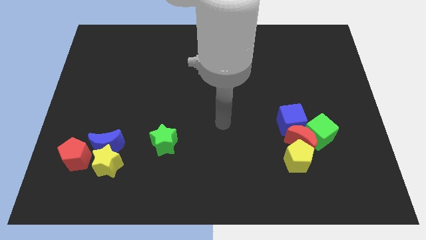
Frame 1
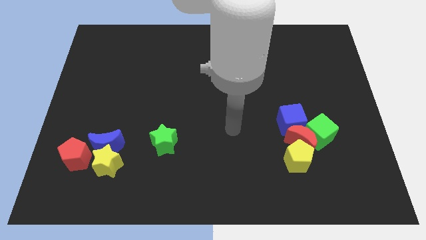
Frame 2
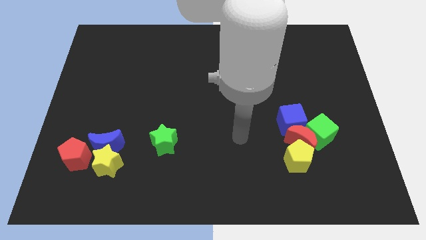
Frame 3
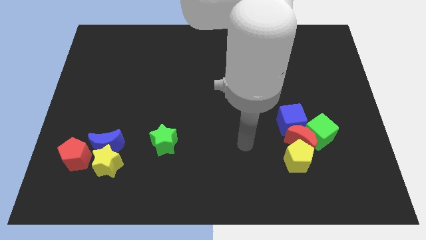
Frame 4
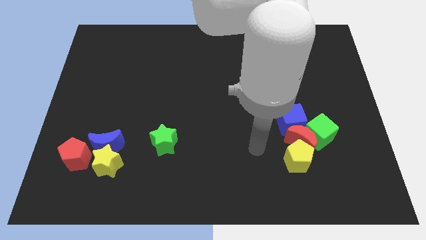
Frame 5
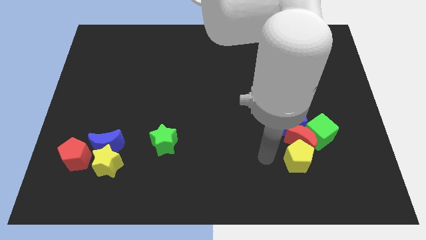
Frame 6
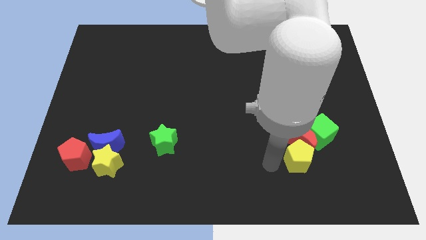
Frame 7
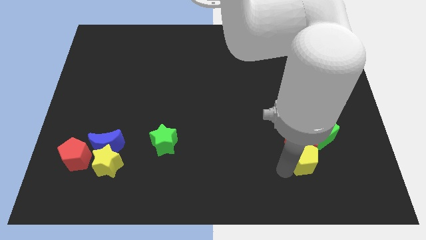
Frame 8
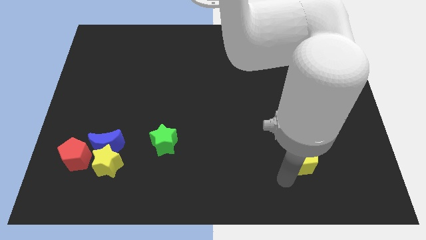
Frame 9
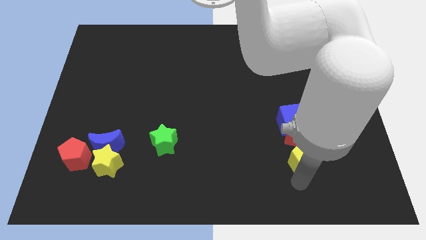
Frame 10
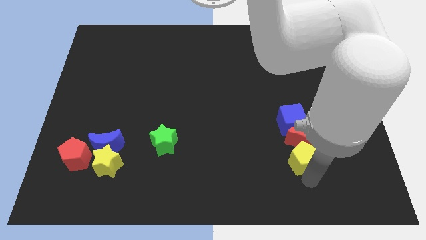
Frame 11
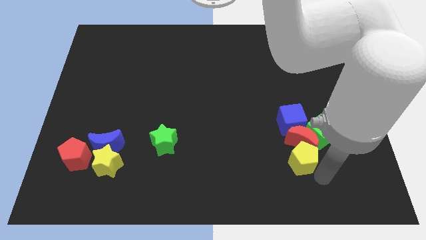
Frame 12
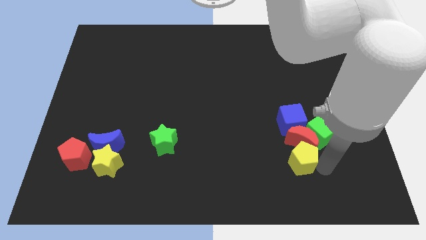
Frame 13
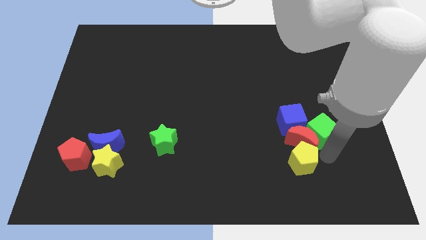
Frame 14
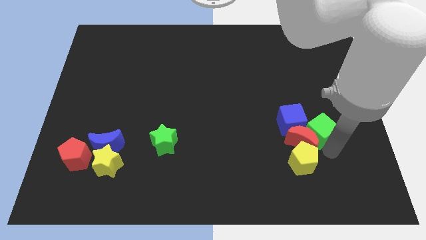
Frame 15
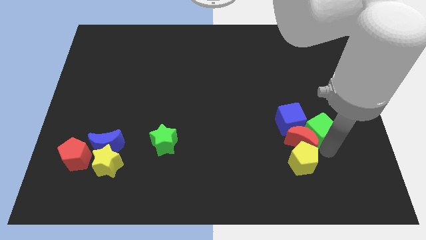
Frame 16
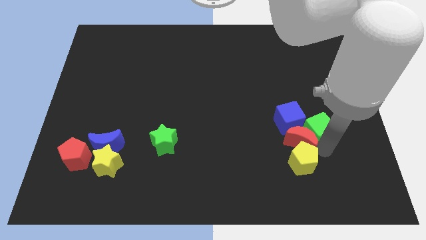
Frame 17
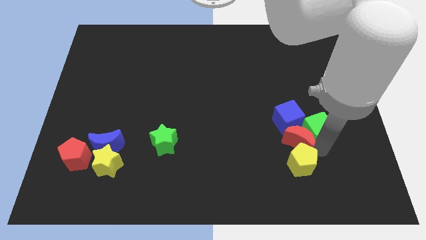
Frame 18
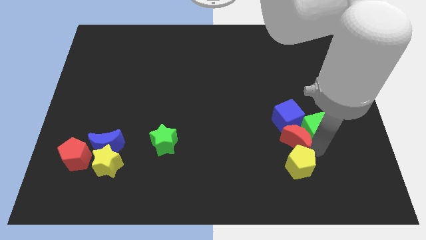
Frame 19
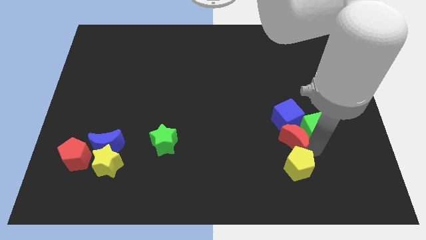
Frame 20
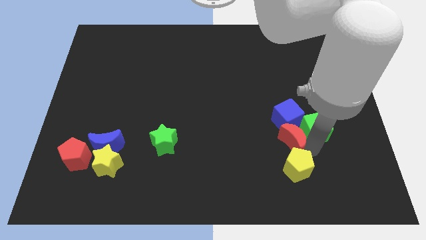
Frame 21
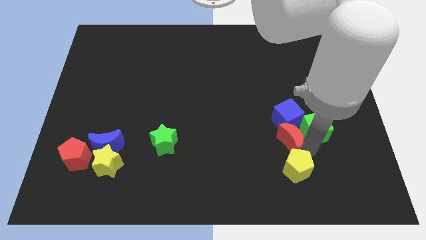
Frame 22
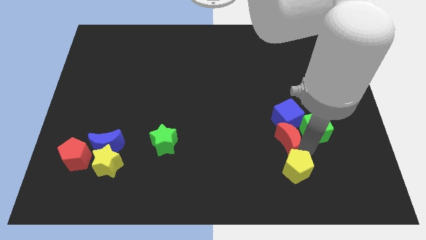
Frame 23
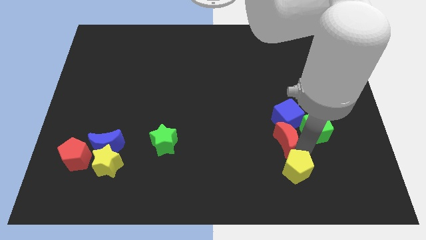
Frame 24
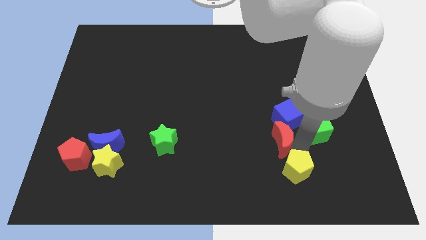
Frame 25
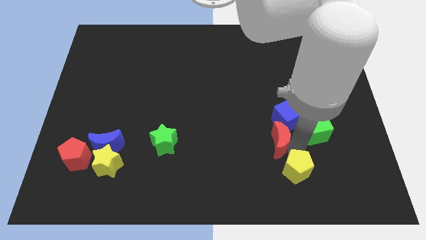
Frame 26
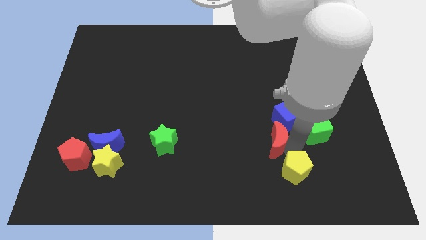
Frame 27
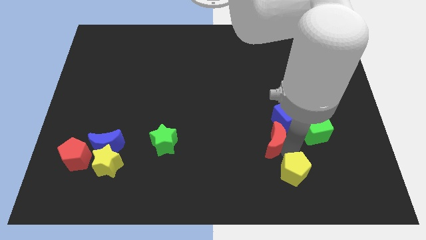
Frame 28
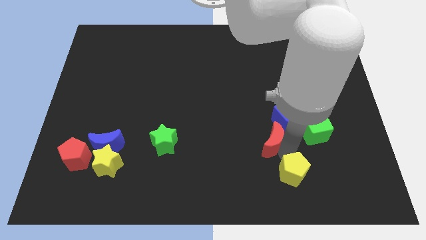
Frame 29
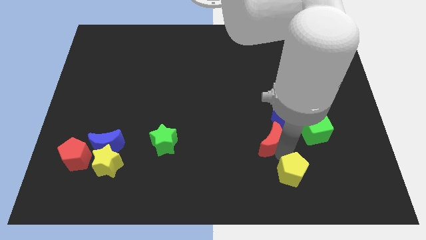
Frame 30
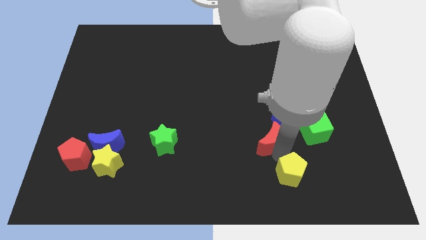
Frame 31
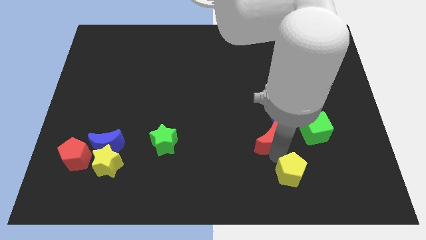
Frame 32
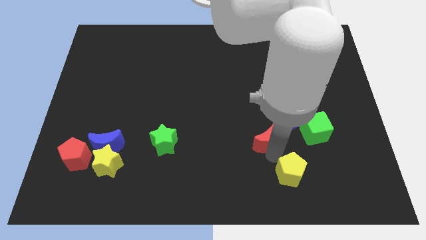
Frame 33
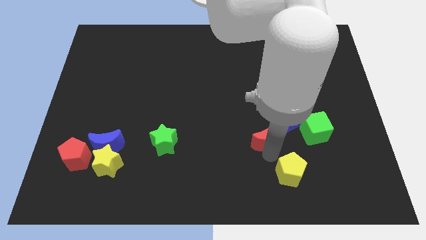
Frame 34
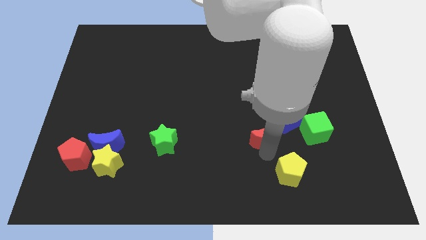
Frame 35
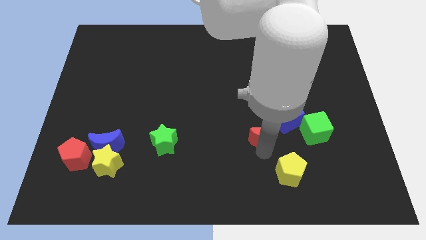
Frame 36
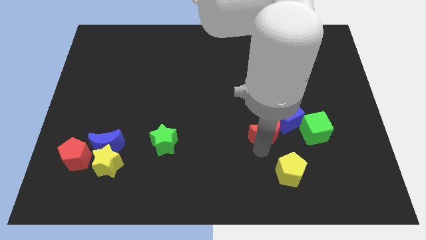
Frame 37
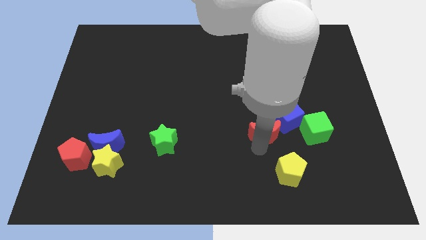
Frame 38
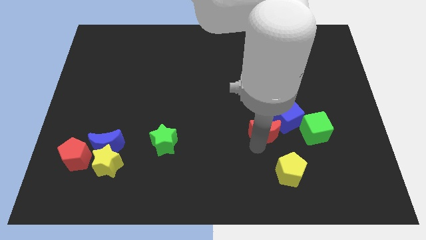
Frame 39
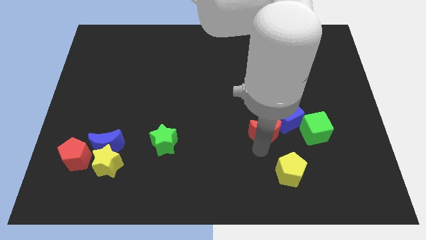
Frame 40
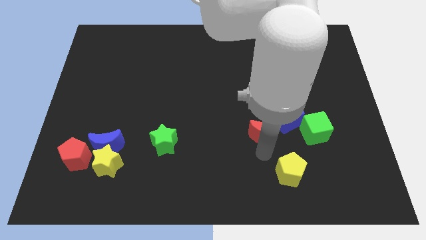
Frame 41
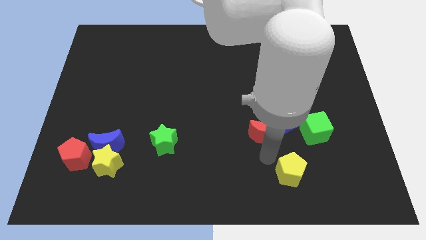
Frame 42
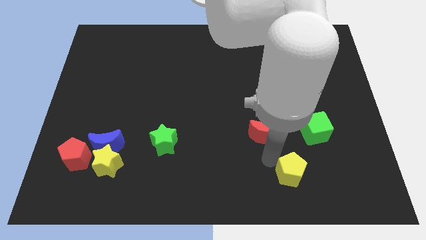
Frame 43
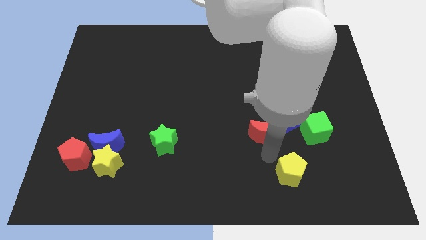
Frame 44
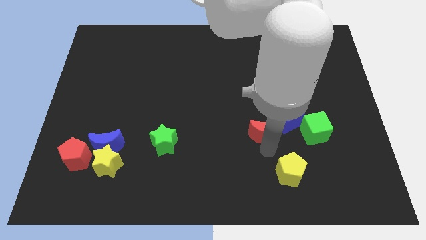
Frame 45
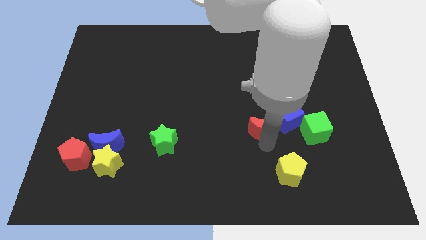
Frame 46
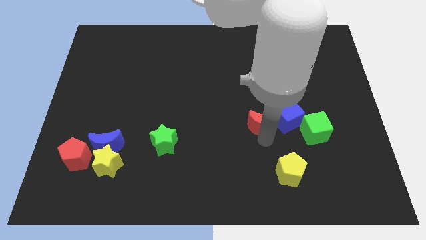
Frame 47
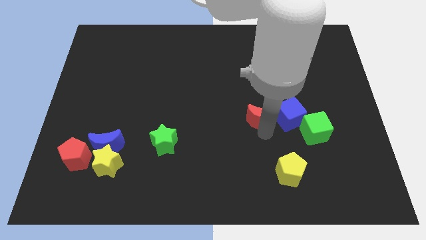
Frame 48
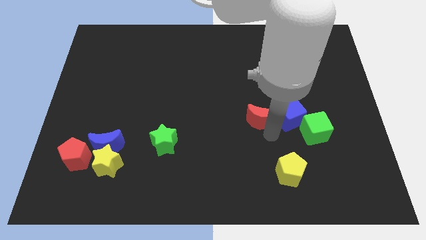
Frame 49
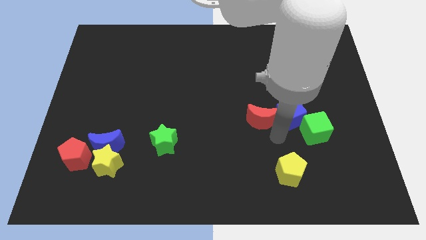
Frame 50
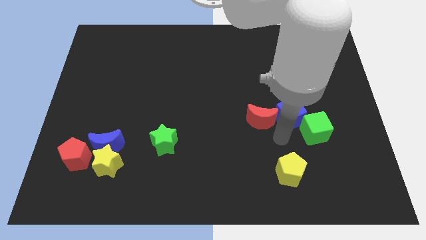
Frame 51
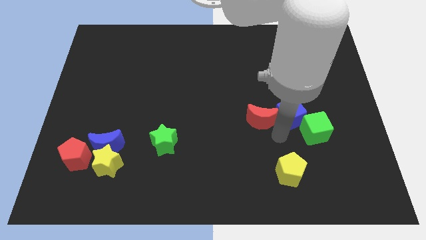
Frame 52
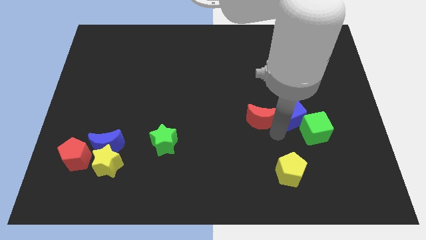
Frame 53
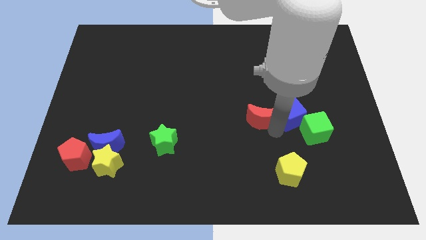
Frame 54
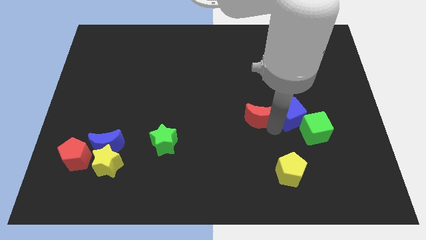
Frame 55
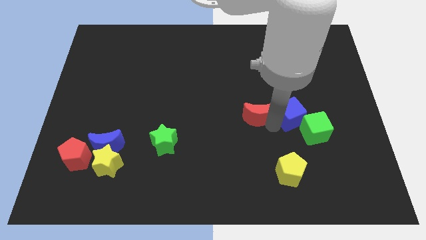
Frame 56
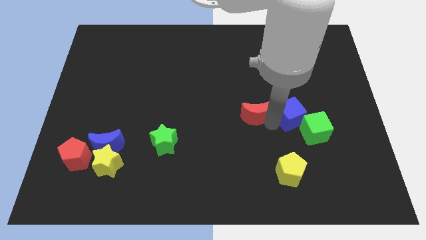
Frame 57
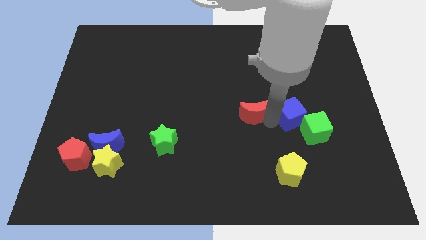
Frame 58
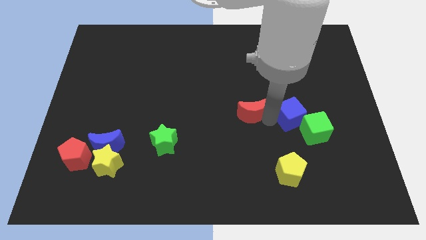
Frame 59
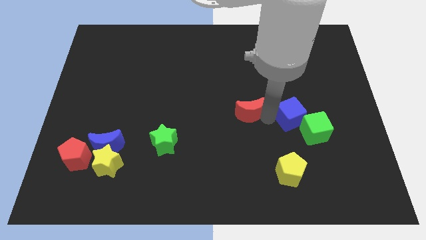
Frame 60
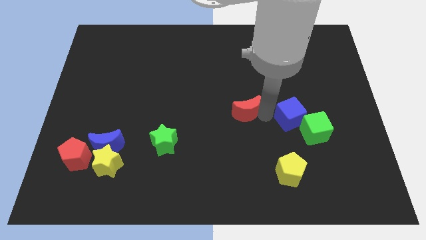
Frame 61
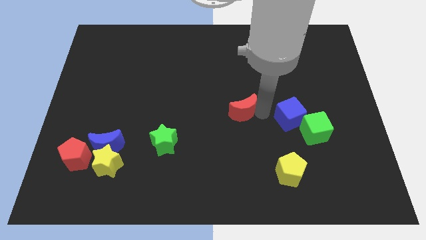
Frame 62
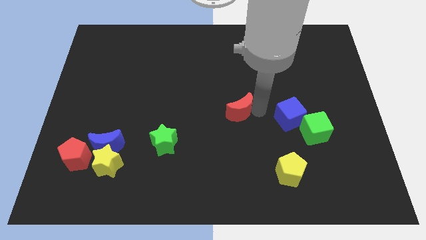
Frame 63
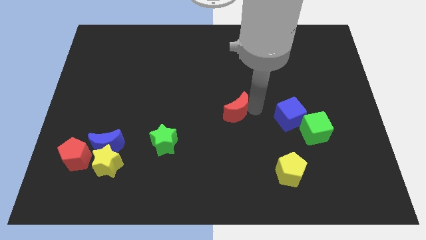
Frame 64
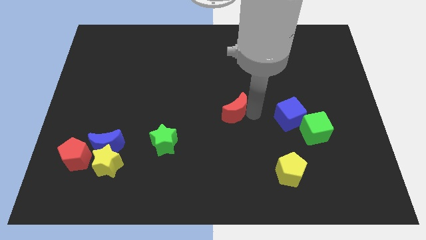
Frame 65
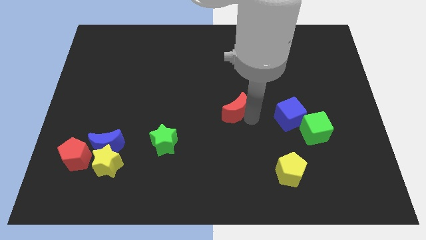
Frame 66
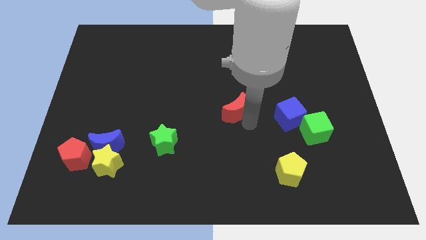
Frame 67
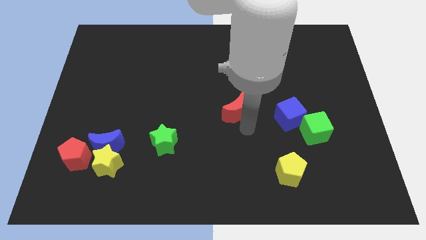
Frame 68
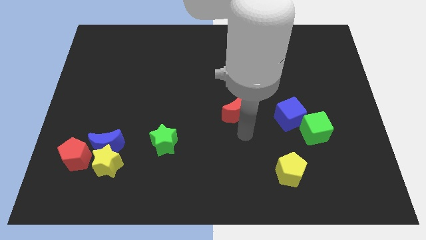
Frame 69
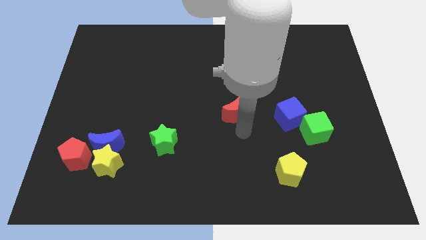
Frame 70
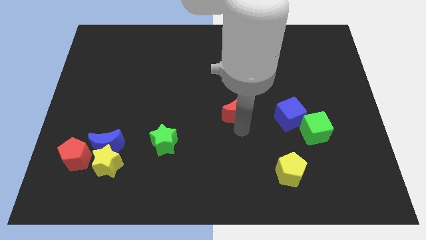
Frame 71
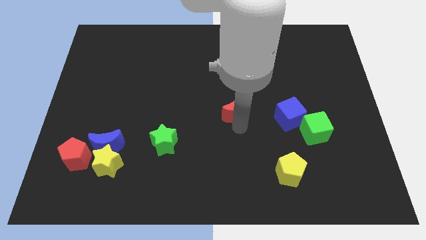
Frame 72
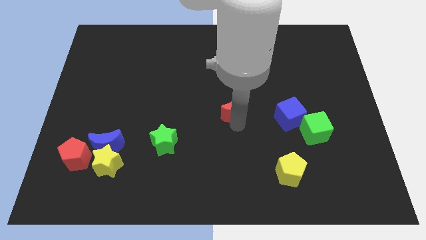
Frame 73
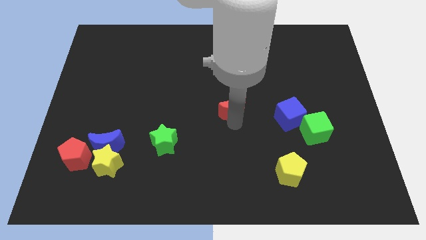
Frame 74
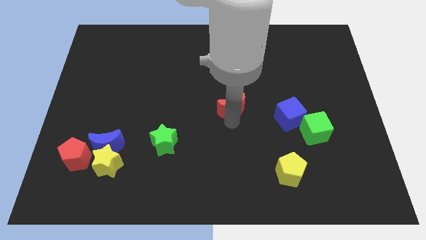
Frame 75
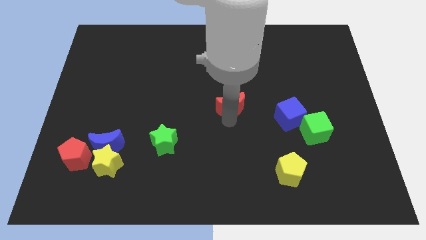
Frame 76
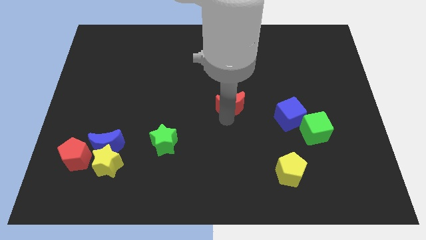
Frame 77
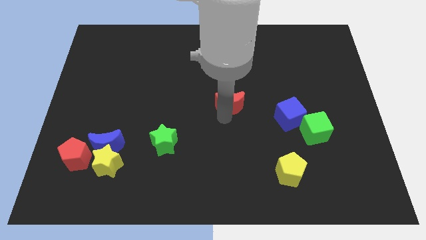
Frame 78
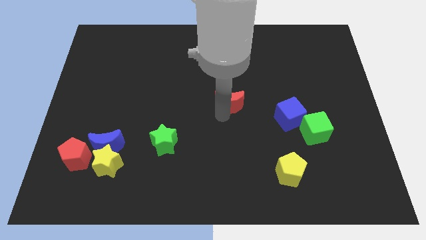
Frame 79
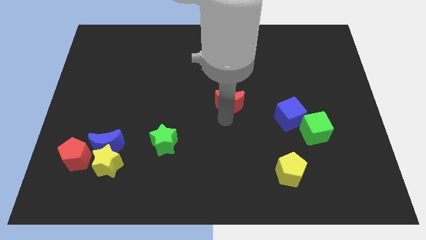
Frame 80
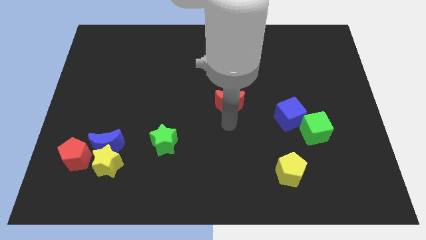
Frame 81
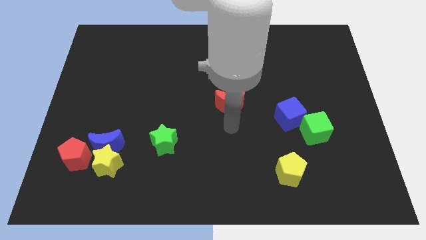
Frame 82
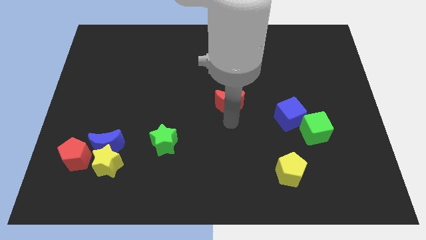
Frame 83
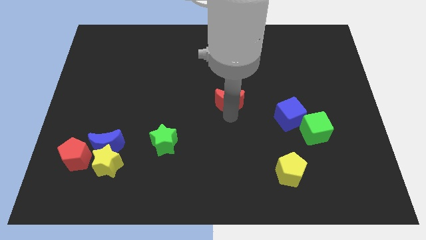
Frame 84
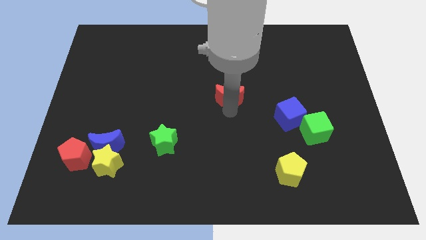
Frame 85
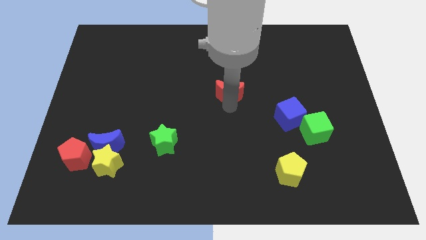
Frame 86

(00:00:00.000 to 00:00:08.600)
push the red moon diagonally upwards and left
